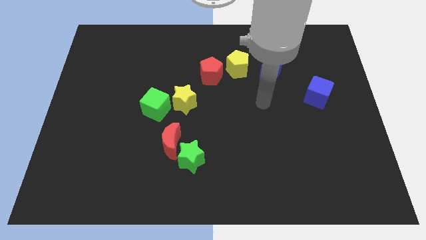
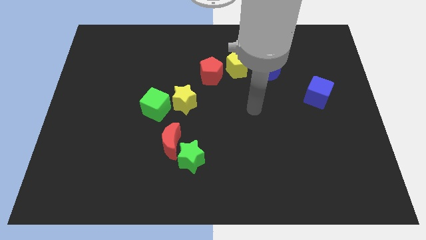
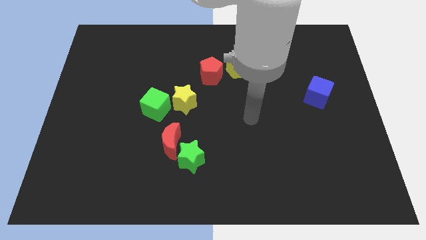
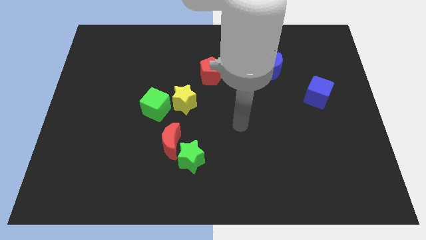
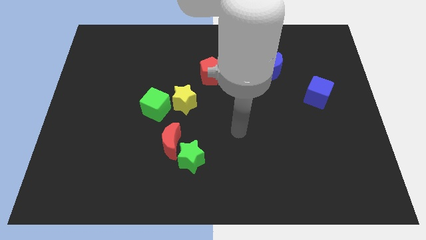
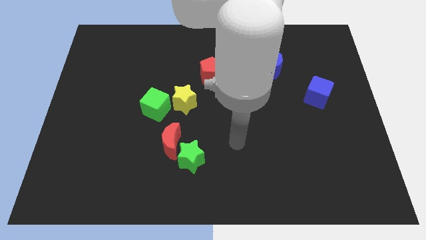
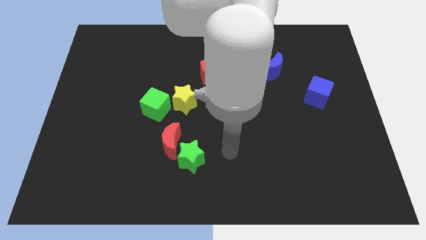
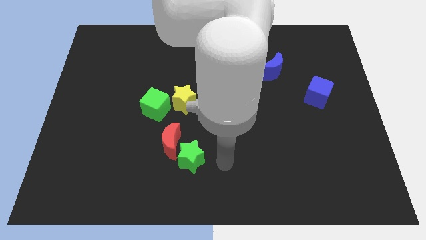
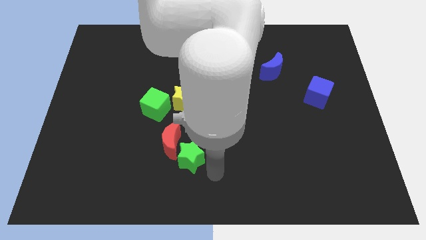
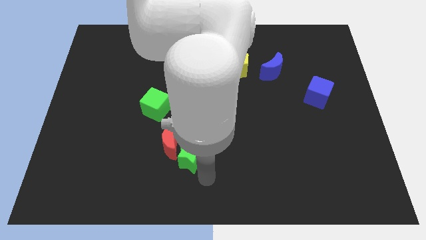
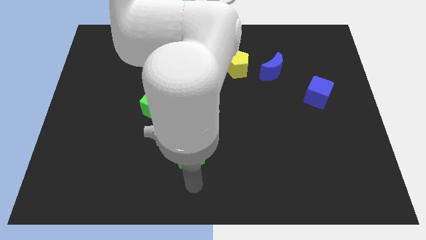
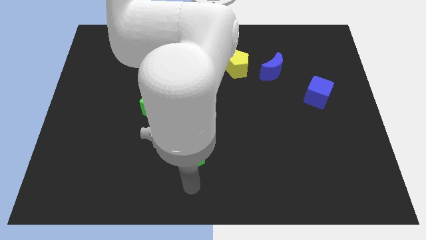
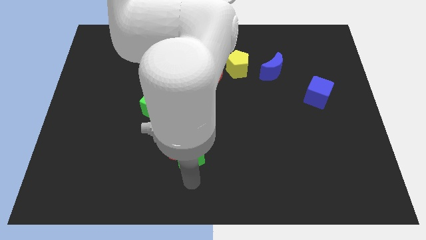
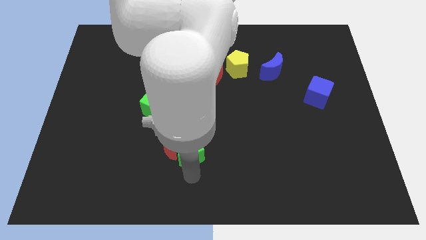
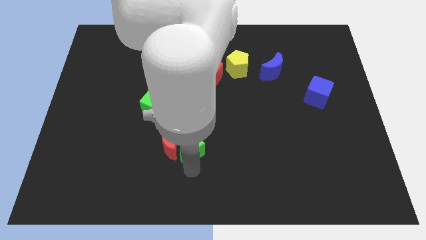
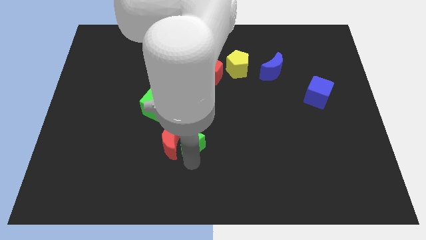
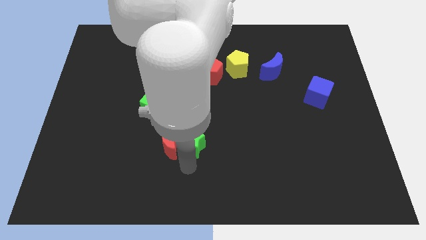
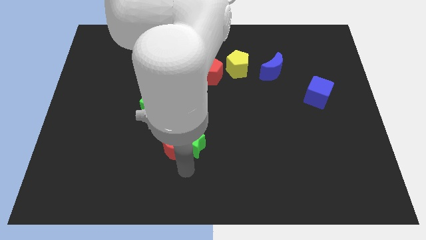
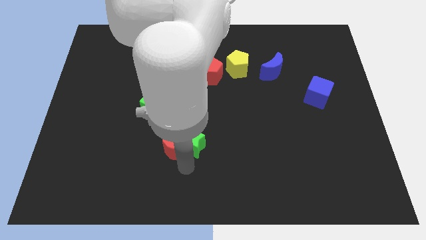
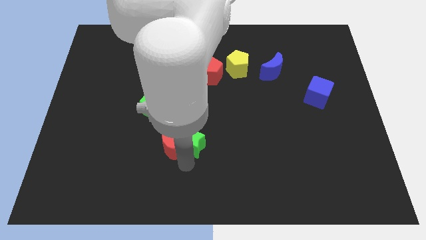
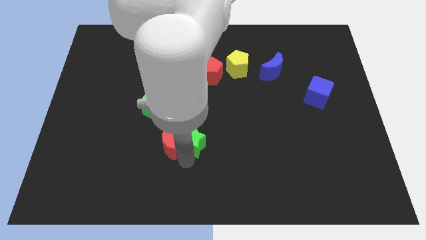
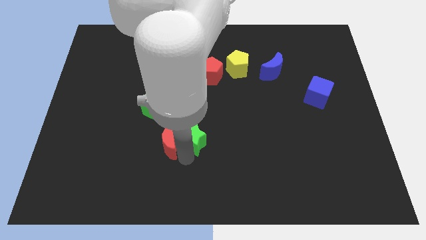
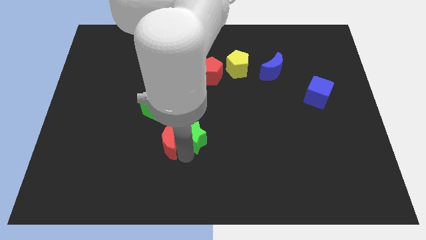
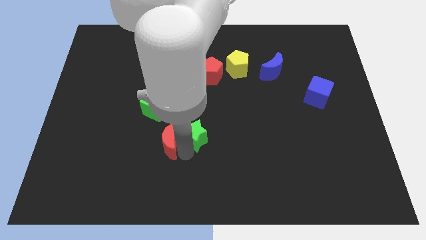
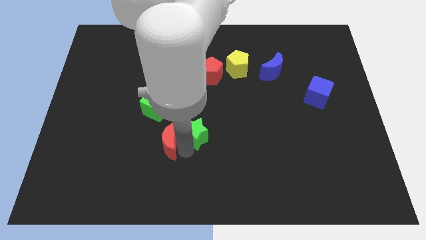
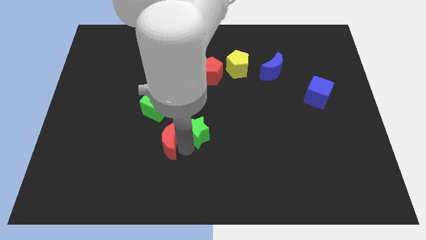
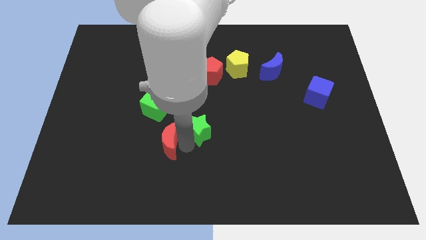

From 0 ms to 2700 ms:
slide the green star a little bit up

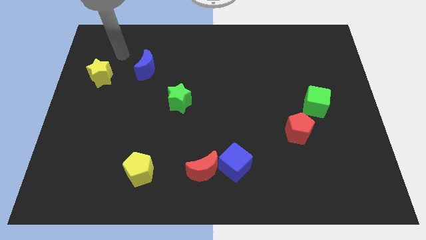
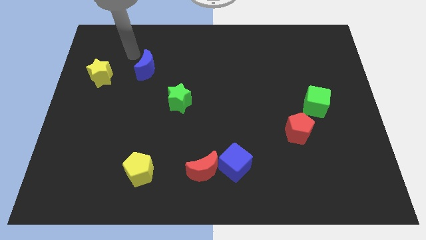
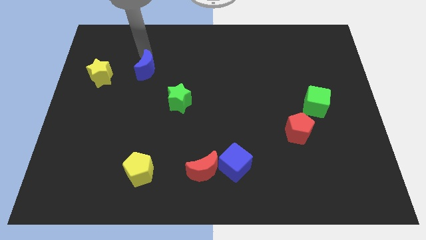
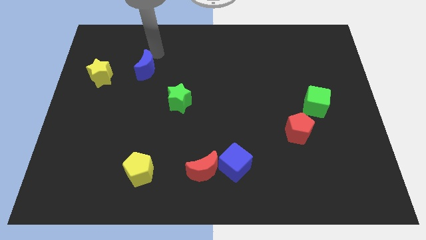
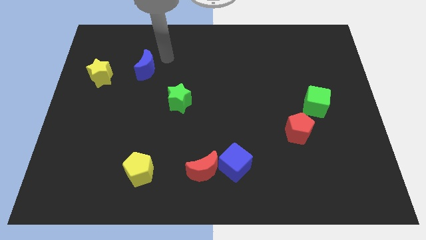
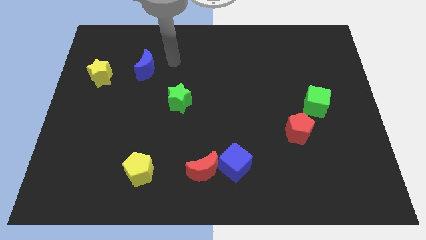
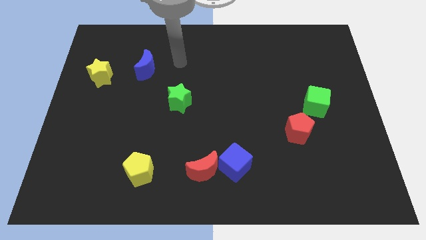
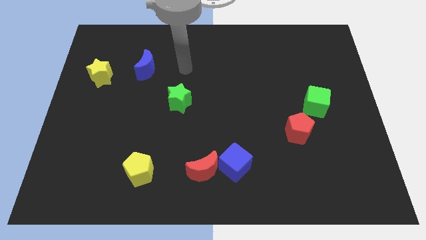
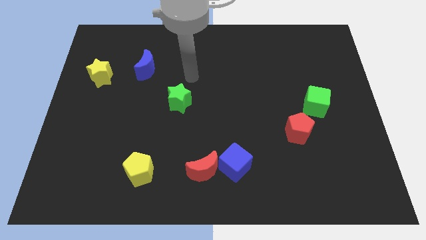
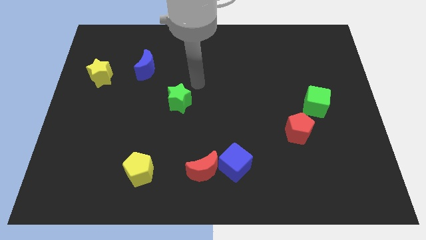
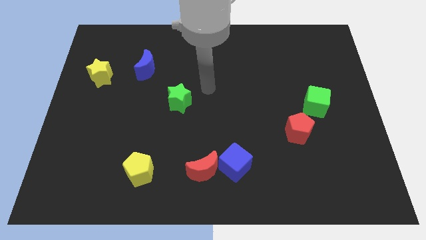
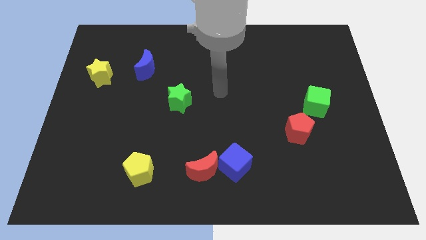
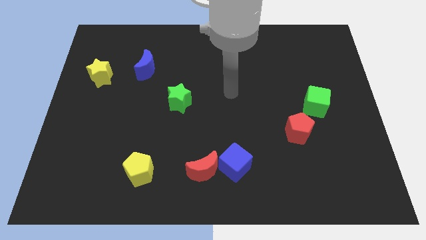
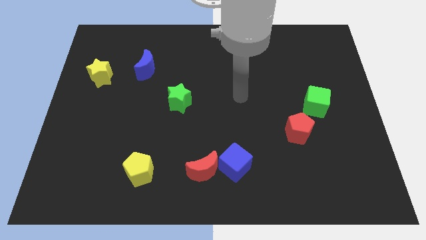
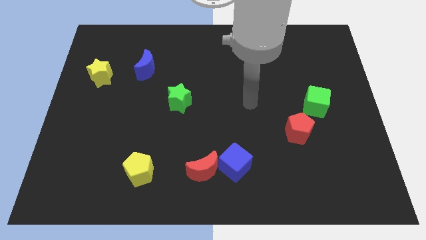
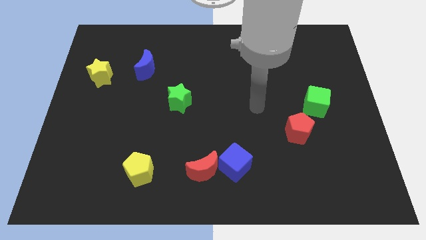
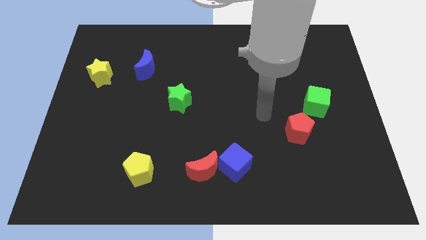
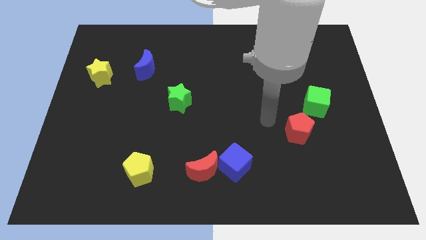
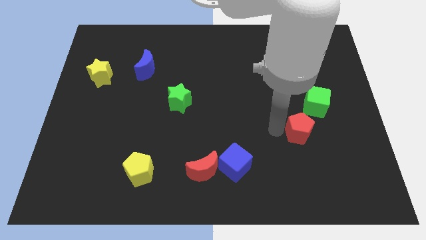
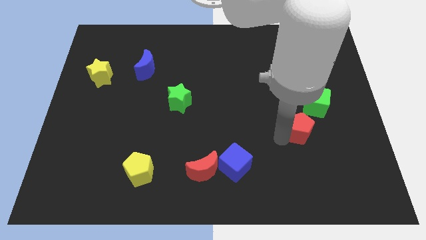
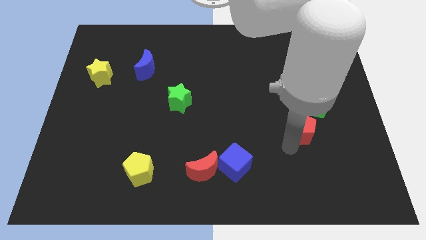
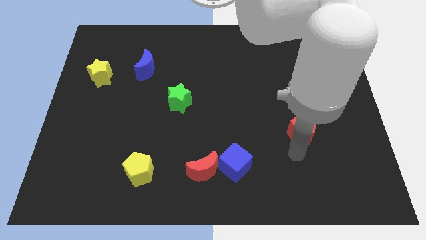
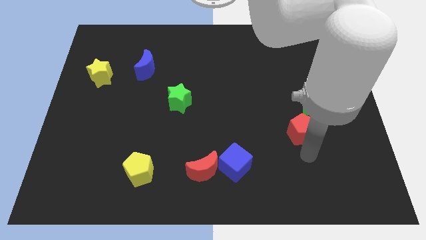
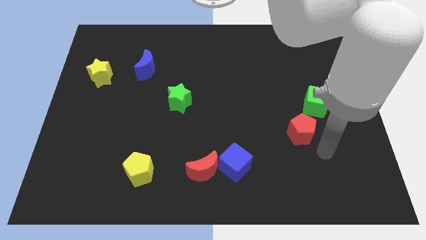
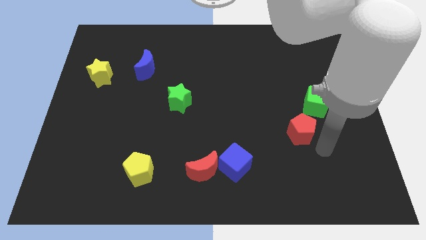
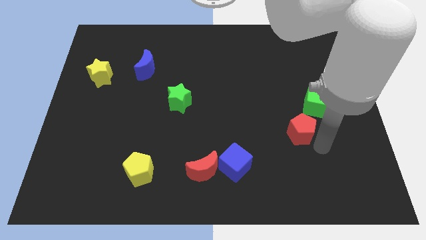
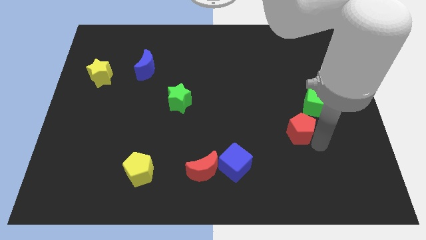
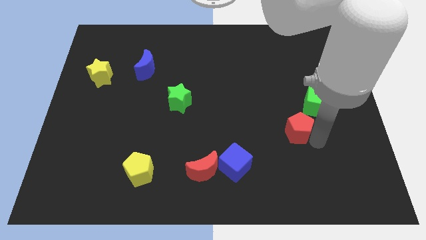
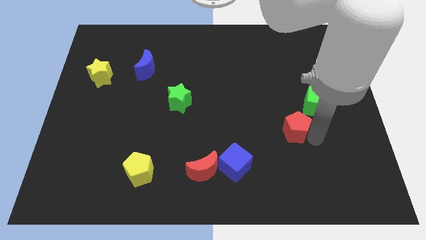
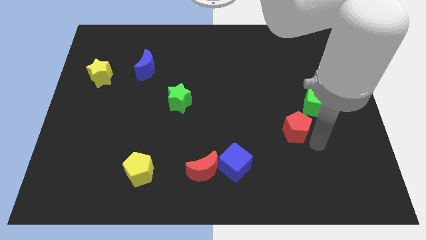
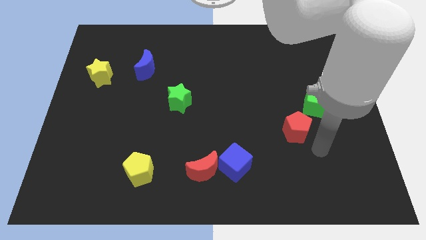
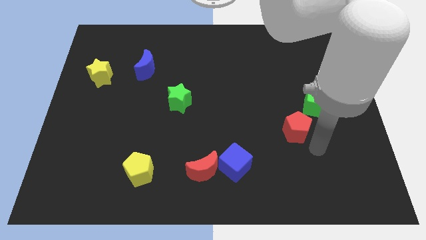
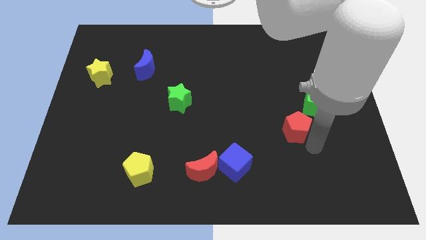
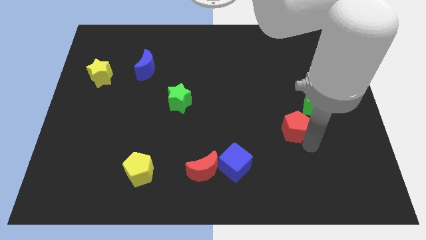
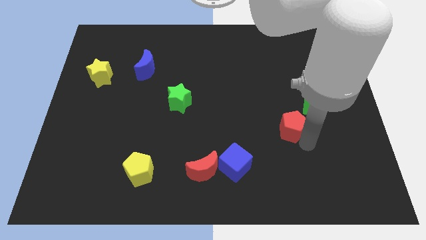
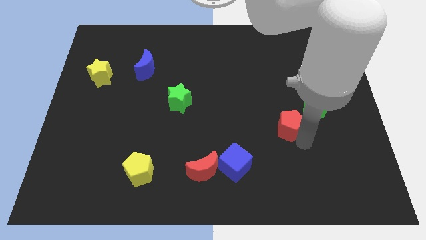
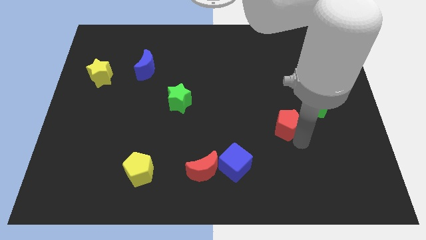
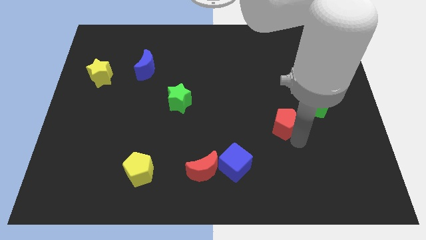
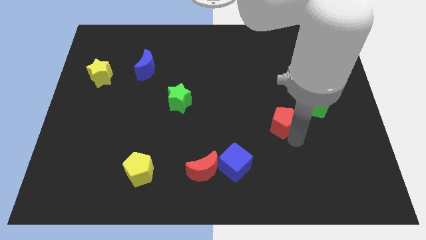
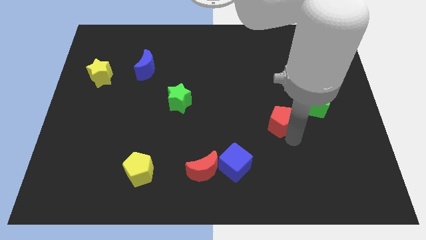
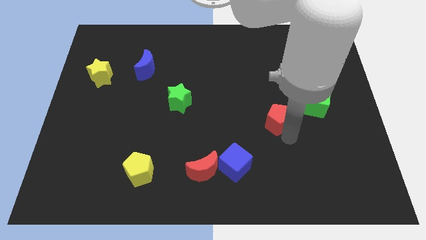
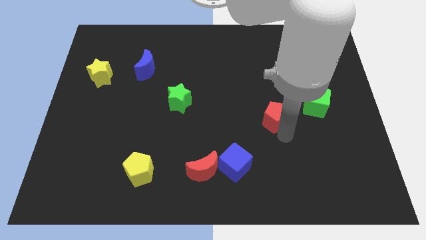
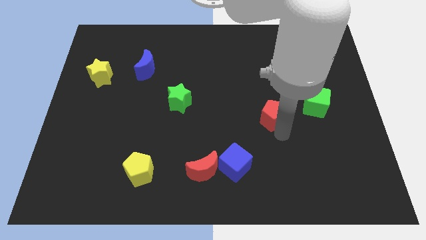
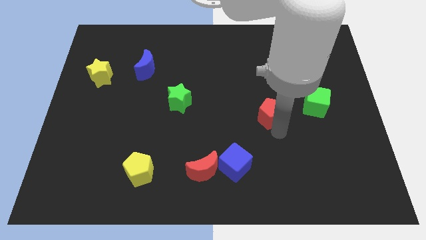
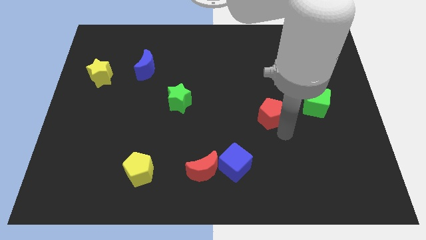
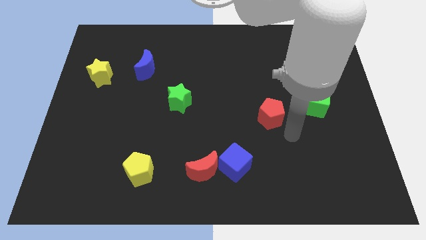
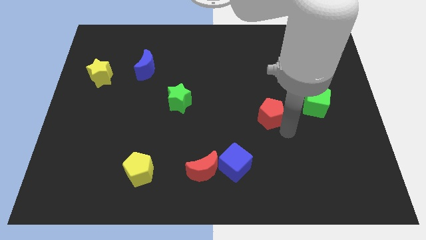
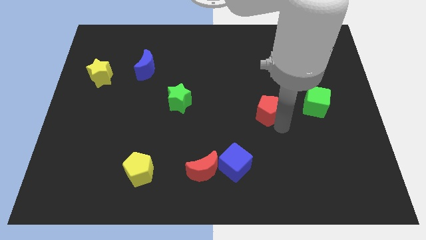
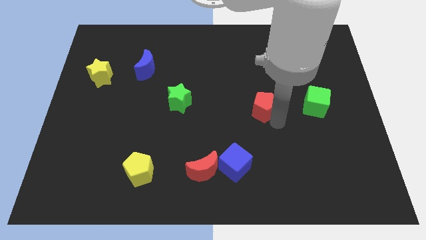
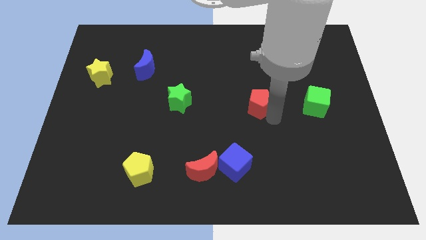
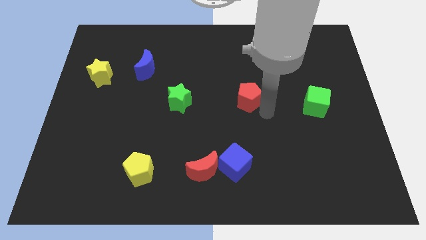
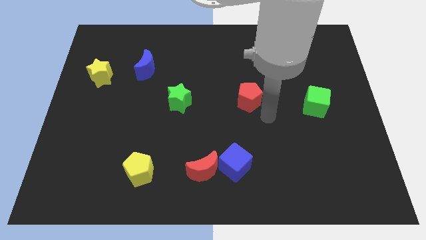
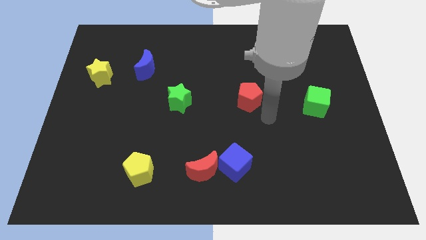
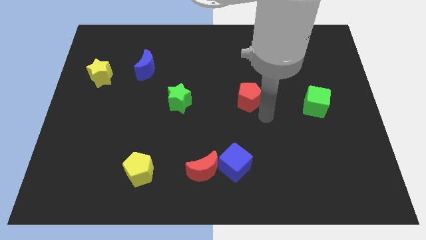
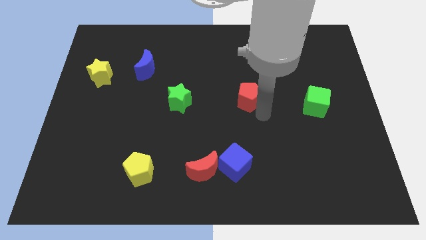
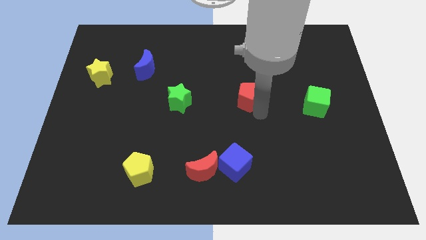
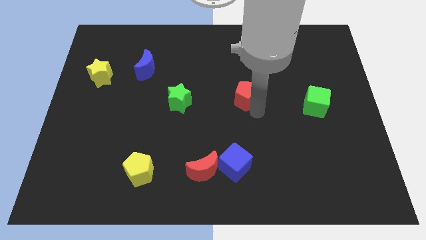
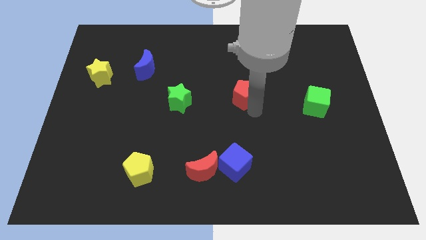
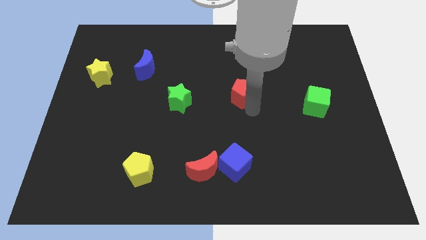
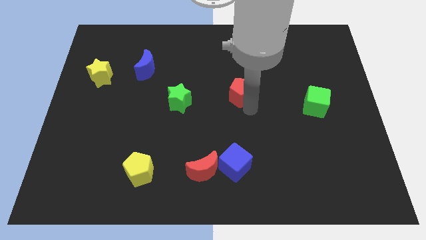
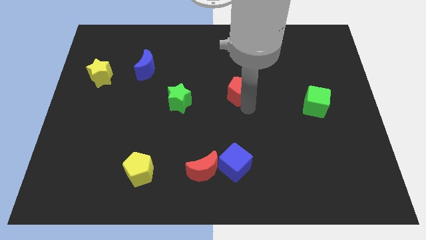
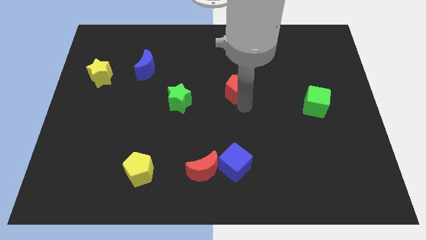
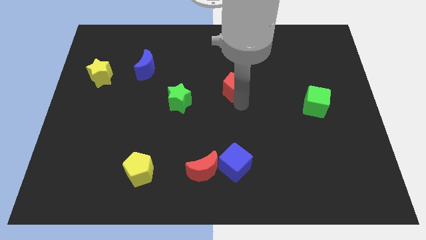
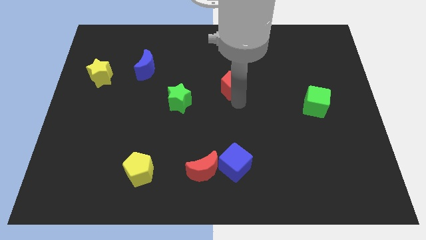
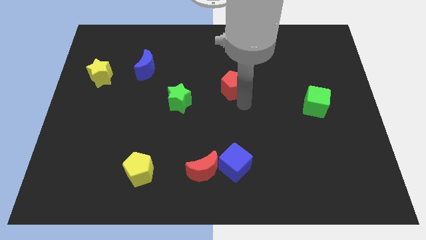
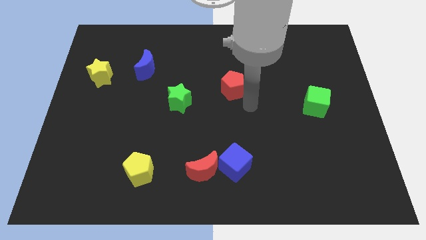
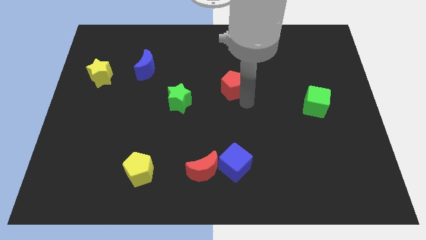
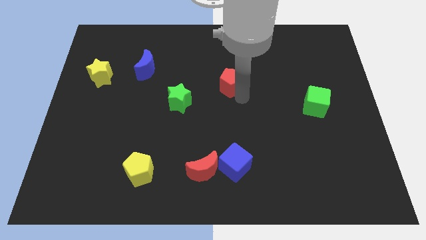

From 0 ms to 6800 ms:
push the red pentagon up and left diagonally
